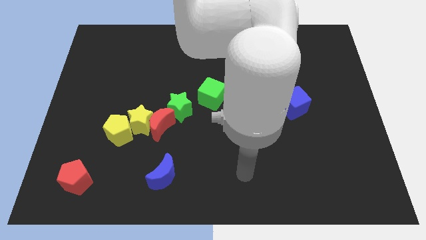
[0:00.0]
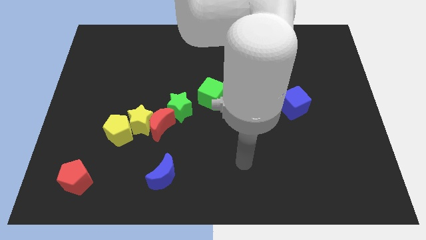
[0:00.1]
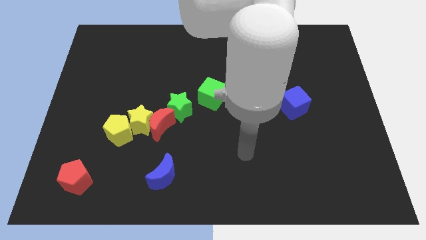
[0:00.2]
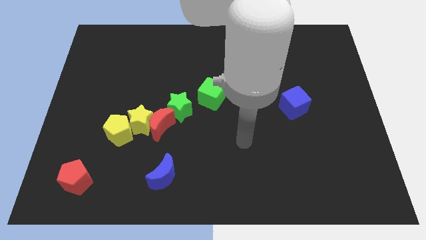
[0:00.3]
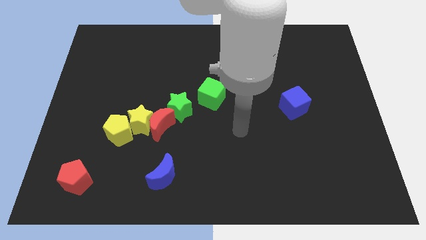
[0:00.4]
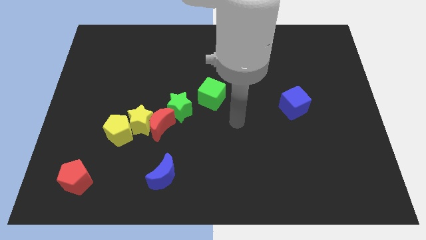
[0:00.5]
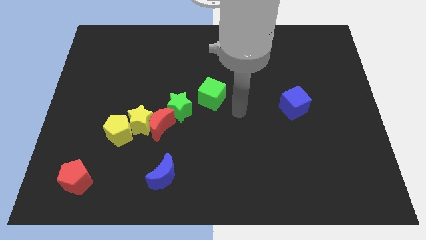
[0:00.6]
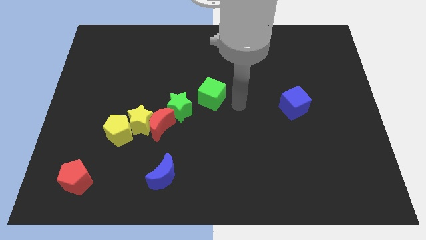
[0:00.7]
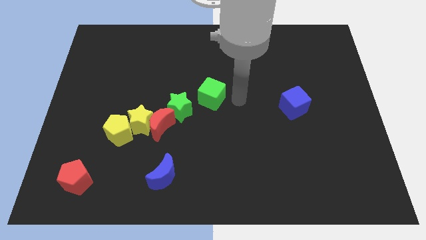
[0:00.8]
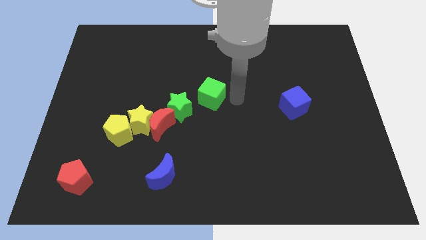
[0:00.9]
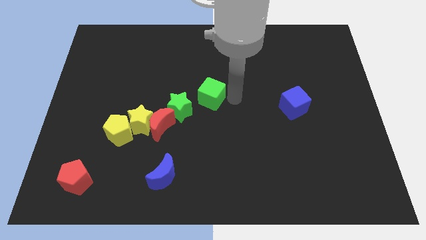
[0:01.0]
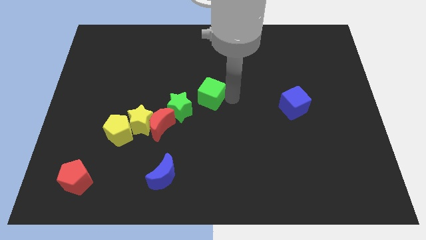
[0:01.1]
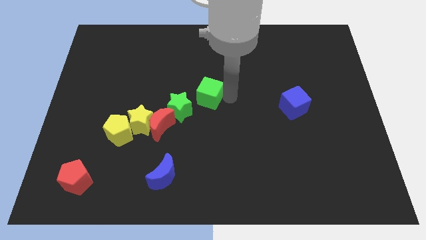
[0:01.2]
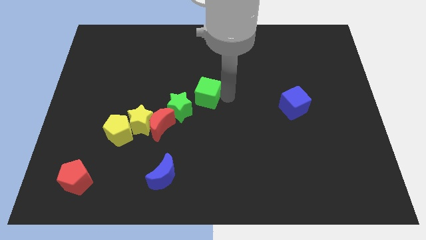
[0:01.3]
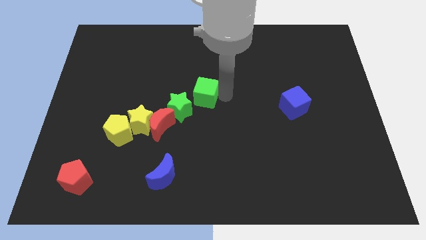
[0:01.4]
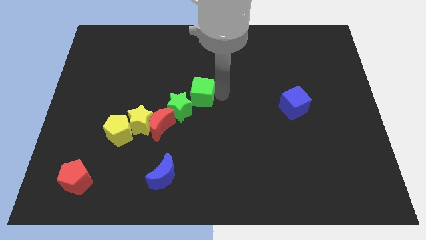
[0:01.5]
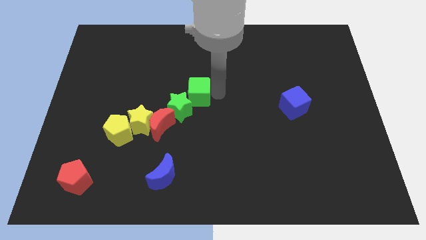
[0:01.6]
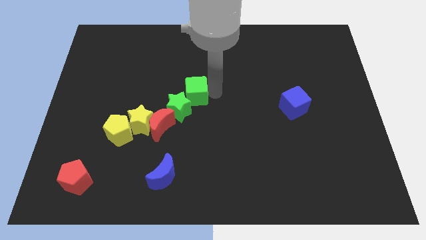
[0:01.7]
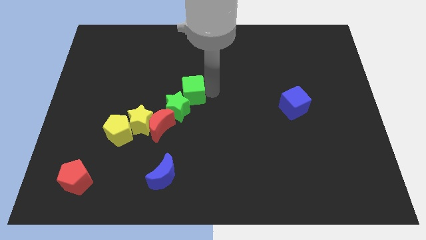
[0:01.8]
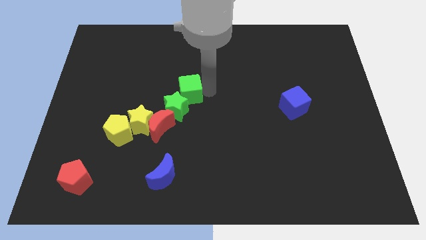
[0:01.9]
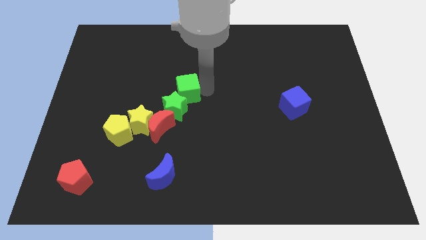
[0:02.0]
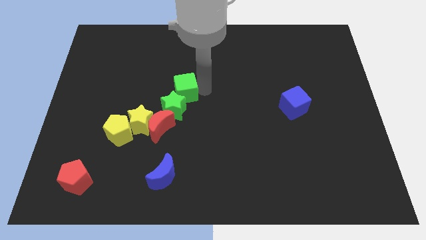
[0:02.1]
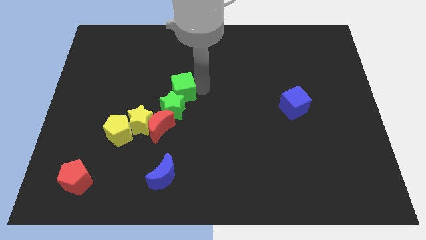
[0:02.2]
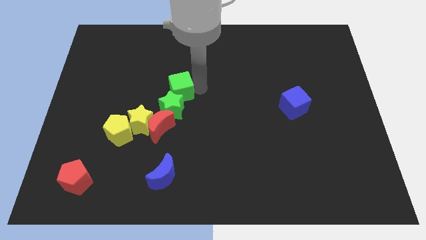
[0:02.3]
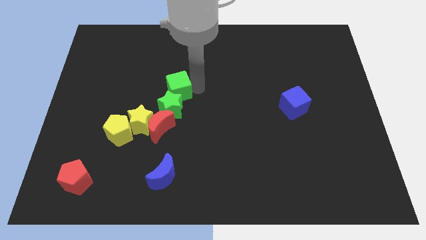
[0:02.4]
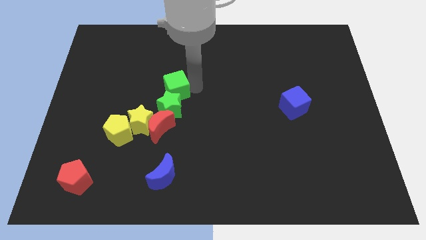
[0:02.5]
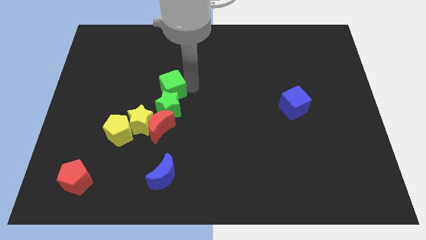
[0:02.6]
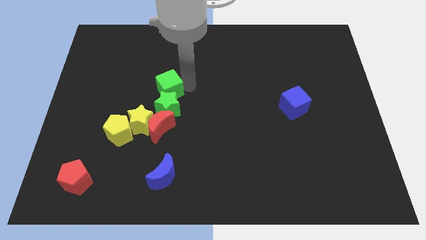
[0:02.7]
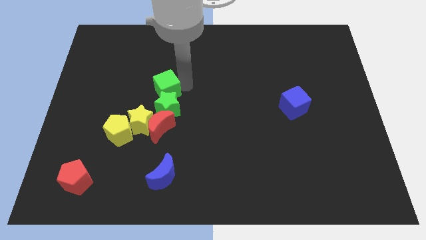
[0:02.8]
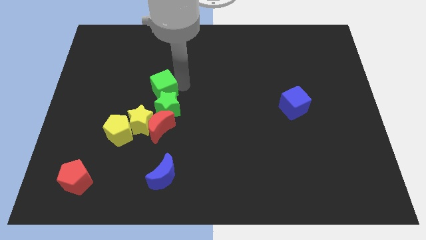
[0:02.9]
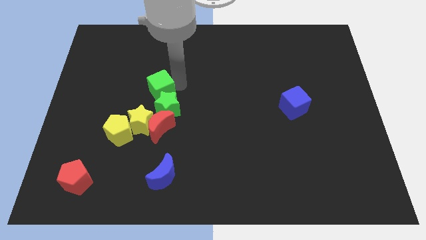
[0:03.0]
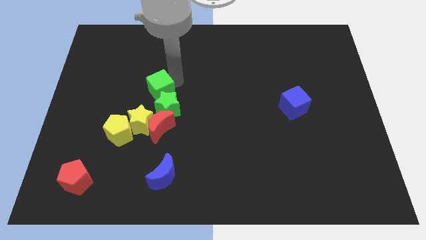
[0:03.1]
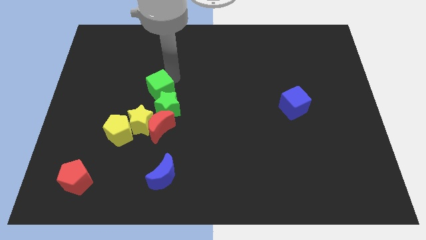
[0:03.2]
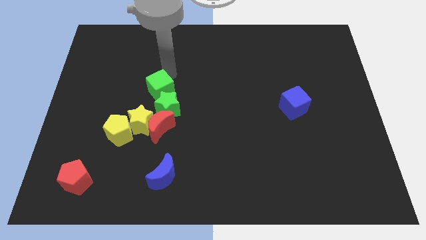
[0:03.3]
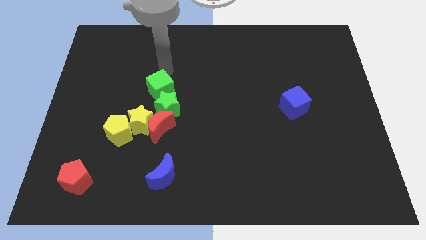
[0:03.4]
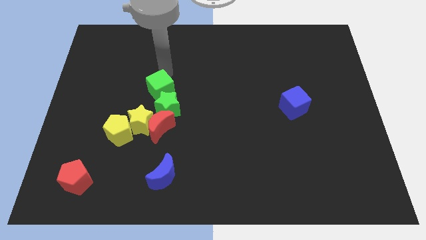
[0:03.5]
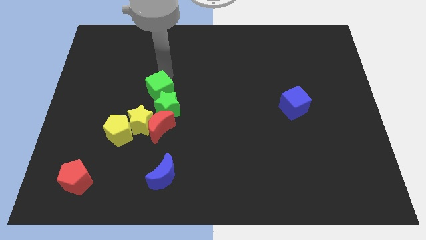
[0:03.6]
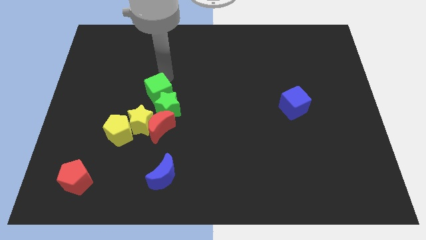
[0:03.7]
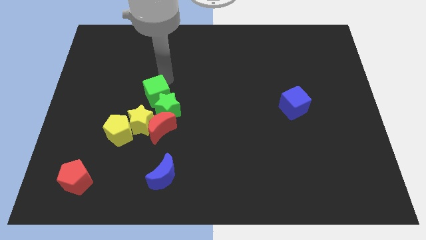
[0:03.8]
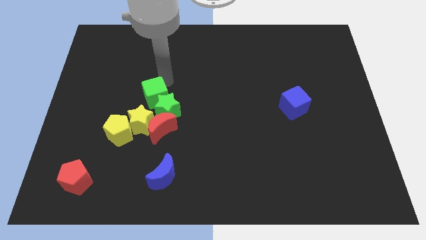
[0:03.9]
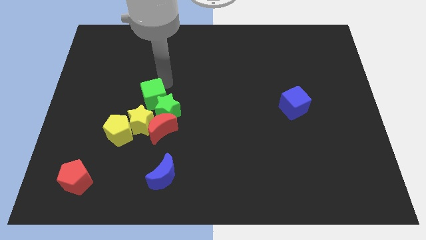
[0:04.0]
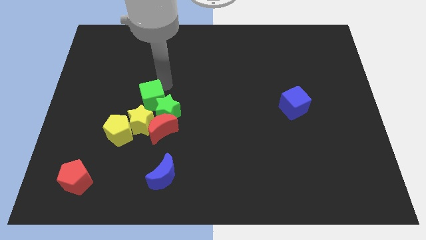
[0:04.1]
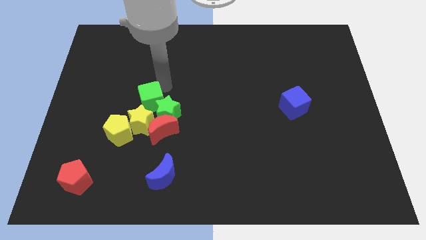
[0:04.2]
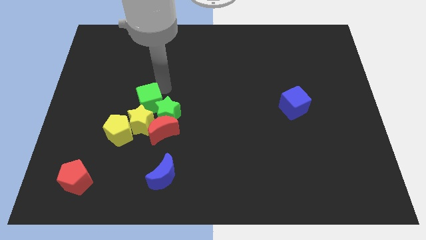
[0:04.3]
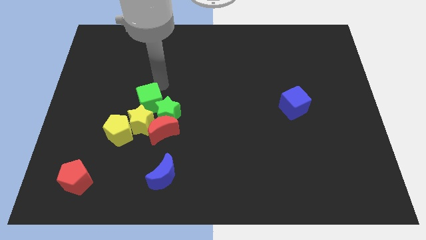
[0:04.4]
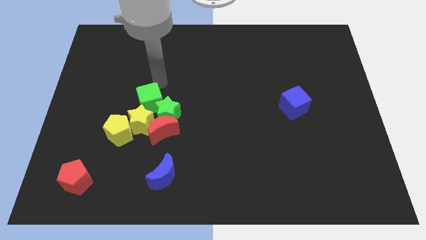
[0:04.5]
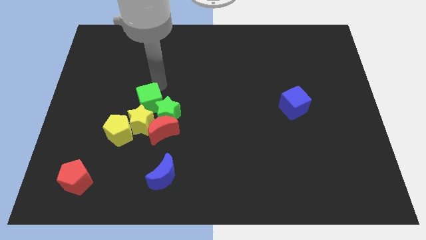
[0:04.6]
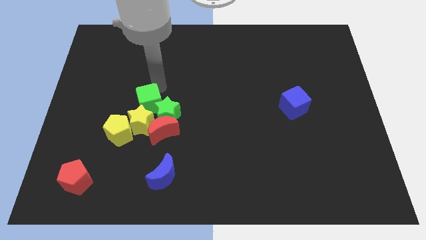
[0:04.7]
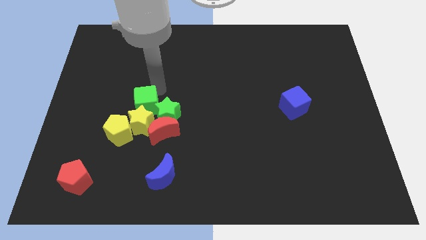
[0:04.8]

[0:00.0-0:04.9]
slide the green cube close to the yellow star

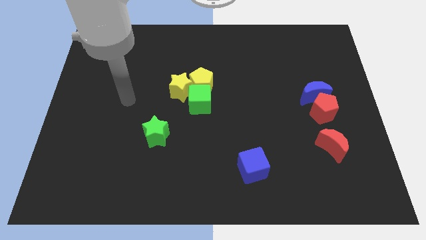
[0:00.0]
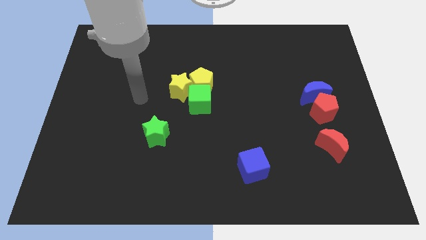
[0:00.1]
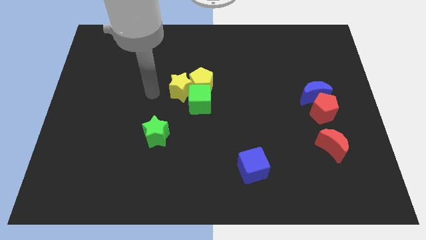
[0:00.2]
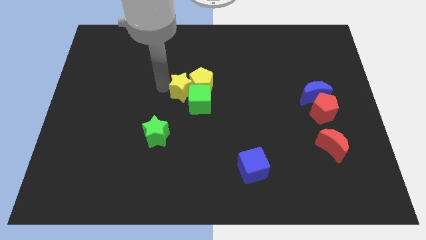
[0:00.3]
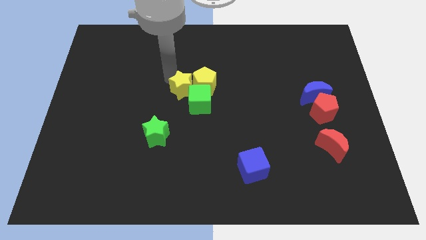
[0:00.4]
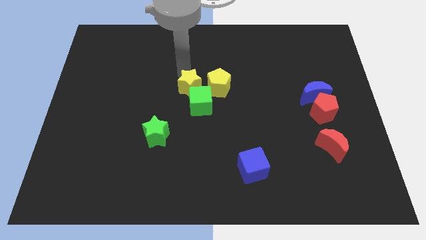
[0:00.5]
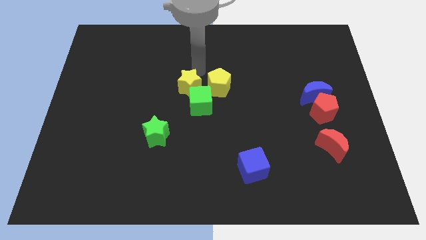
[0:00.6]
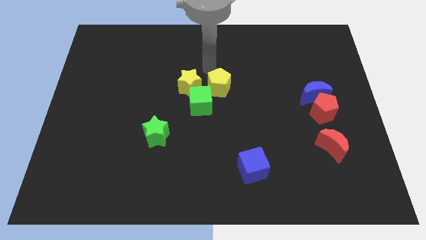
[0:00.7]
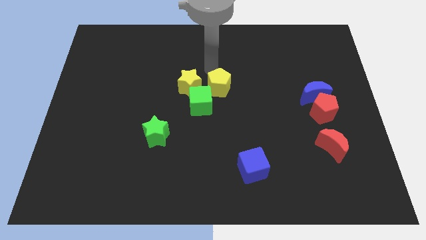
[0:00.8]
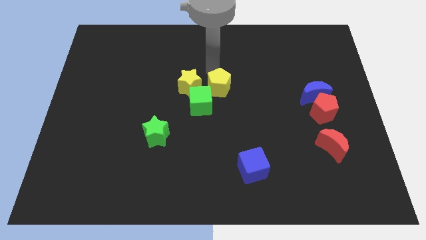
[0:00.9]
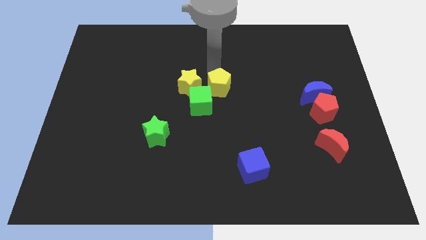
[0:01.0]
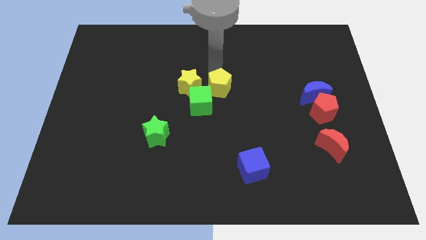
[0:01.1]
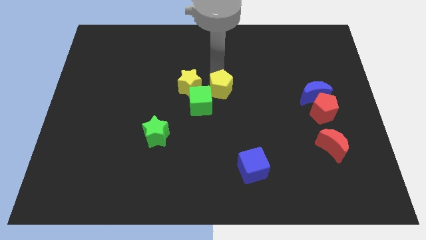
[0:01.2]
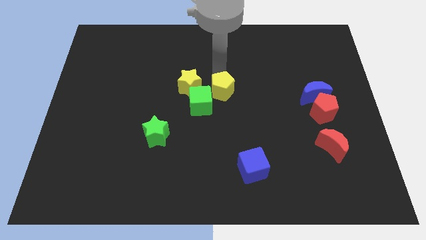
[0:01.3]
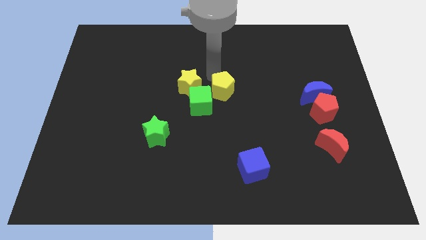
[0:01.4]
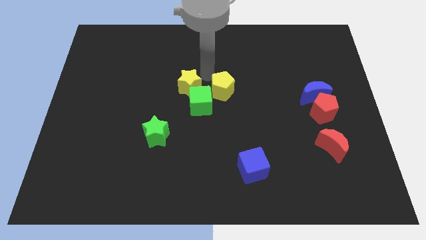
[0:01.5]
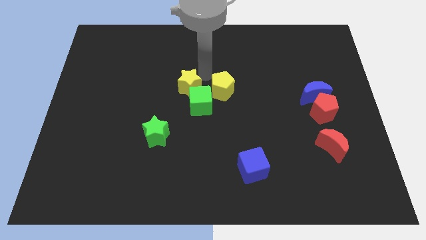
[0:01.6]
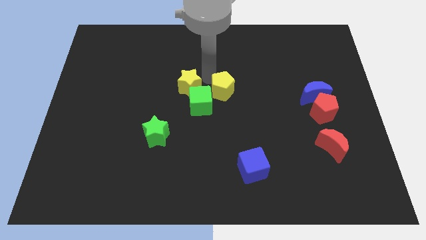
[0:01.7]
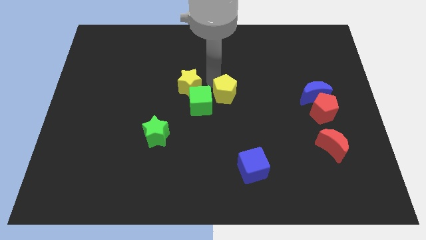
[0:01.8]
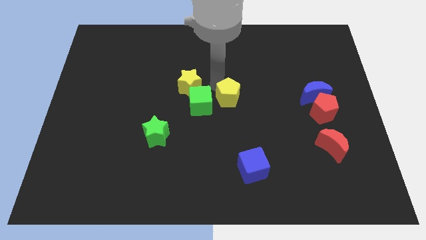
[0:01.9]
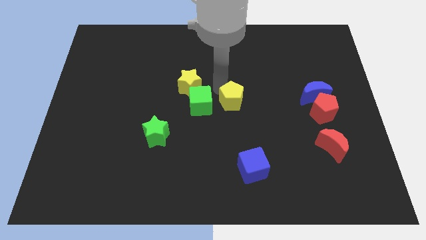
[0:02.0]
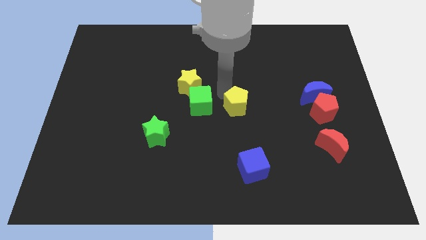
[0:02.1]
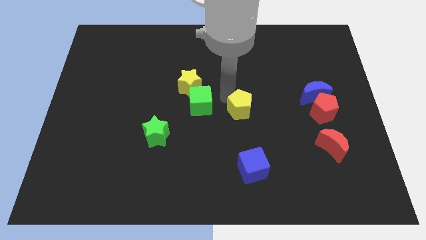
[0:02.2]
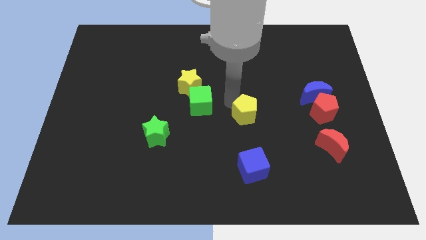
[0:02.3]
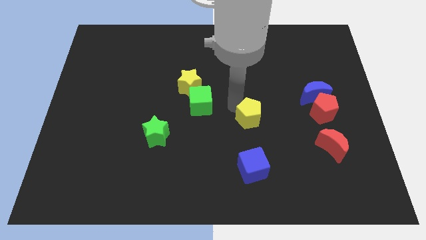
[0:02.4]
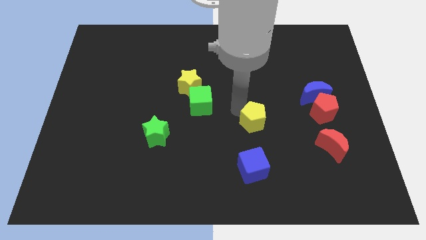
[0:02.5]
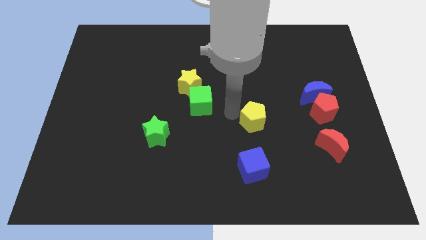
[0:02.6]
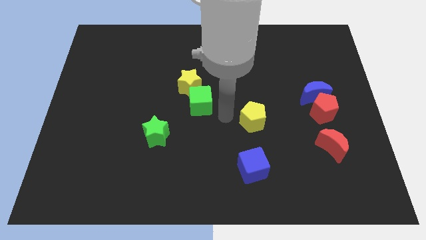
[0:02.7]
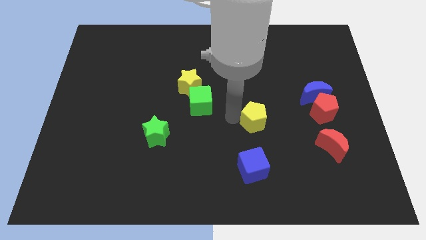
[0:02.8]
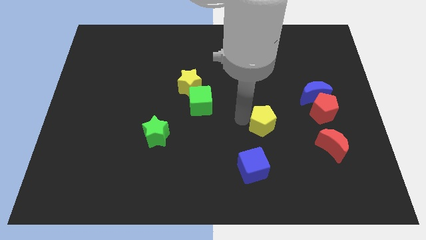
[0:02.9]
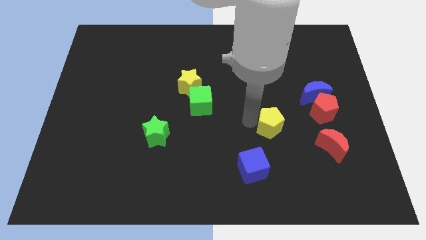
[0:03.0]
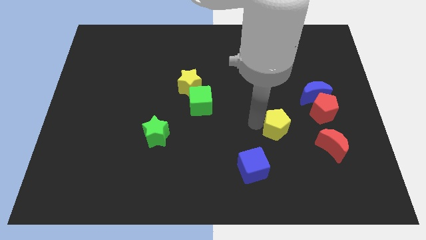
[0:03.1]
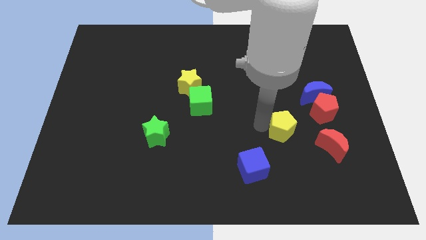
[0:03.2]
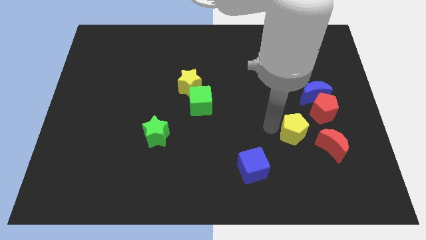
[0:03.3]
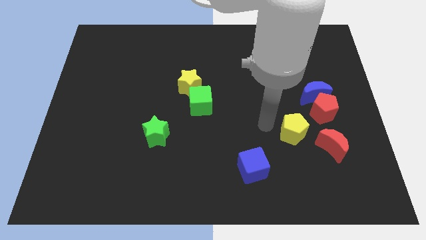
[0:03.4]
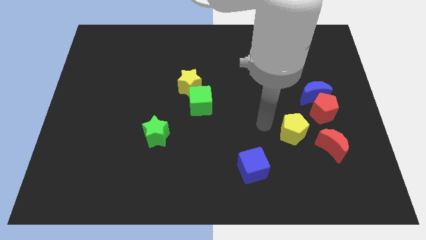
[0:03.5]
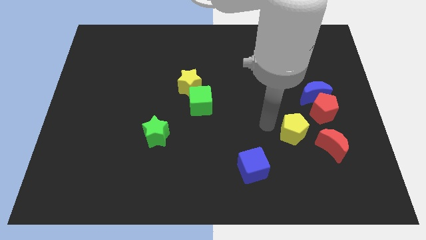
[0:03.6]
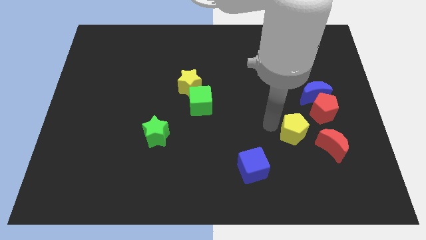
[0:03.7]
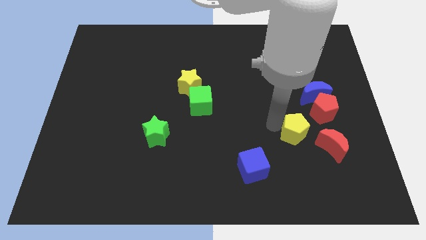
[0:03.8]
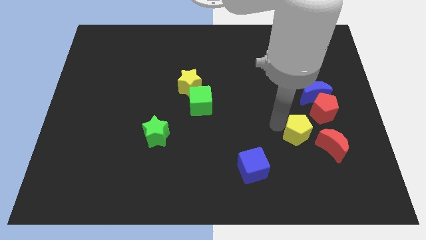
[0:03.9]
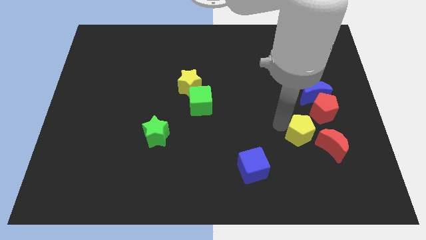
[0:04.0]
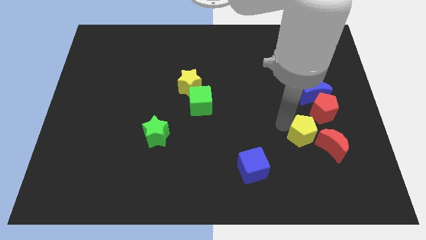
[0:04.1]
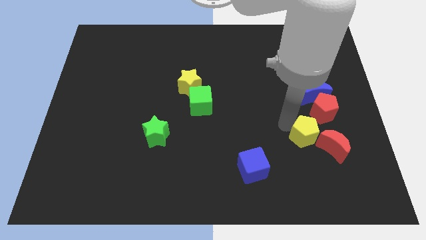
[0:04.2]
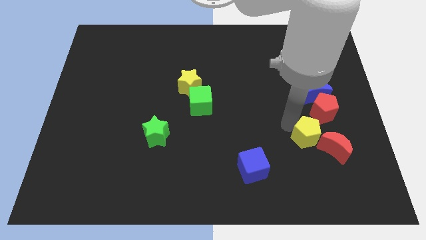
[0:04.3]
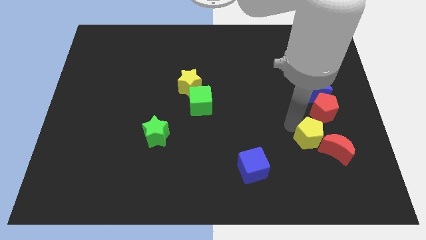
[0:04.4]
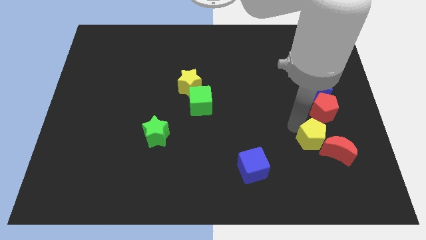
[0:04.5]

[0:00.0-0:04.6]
move the yellow pentagon to the red moon
